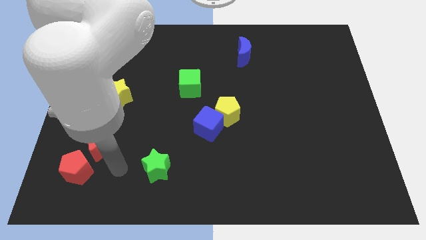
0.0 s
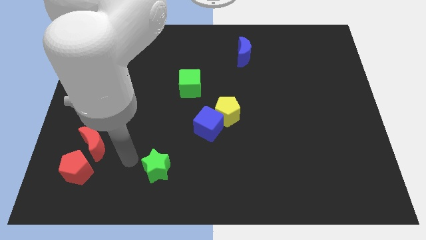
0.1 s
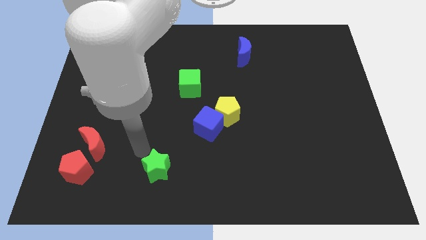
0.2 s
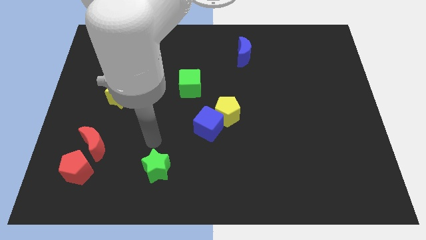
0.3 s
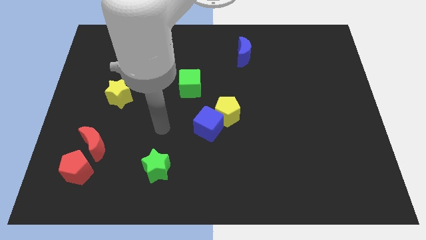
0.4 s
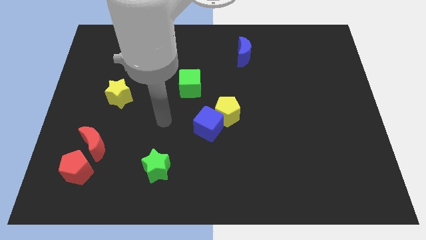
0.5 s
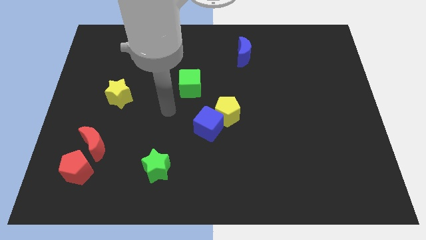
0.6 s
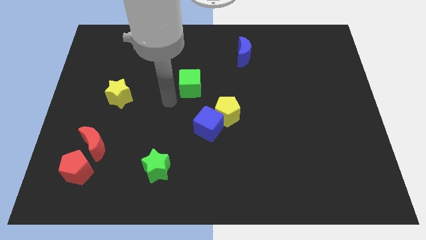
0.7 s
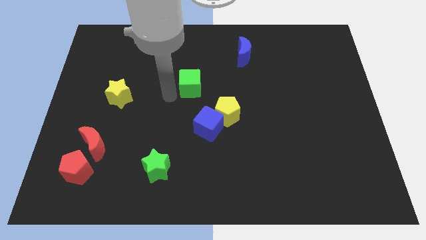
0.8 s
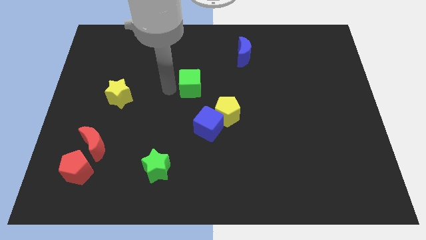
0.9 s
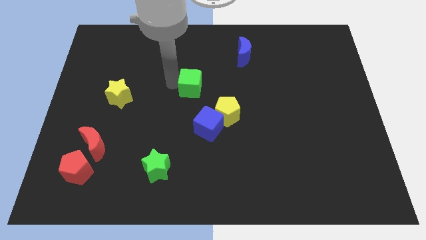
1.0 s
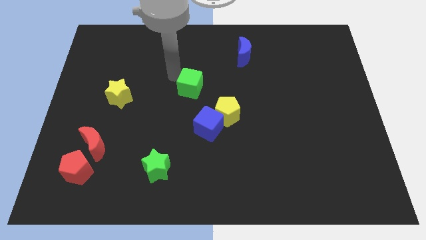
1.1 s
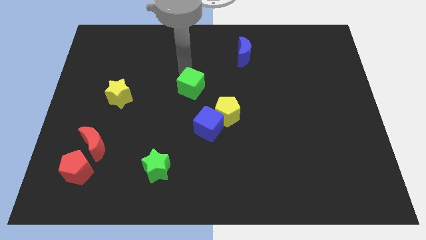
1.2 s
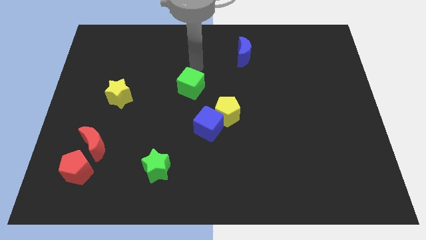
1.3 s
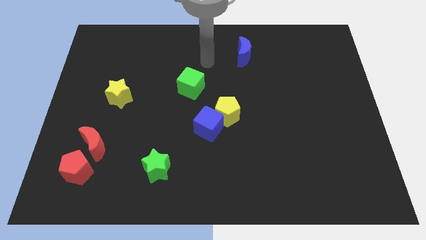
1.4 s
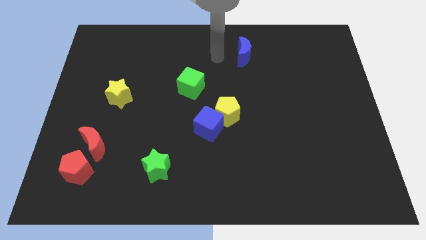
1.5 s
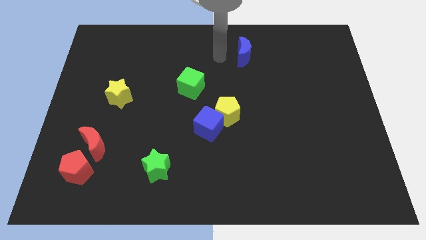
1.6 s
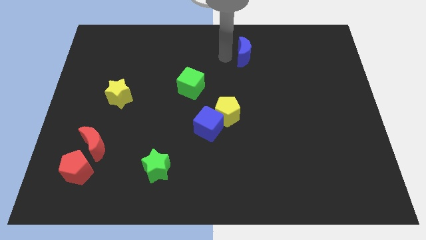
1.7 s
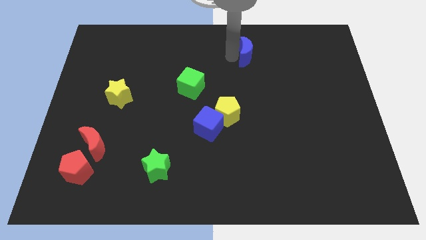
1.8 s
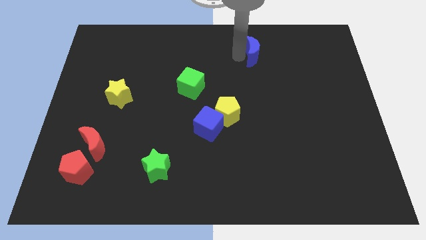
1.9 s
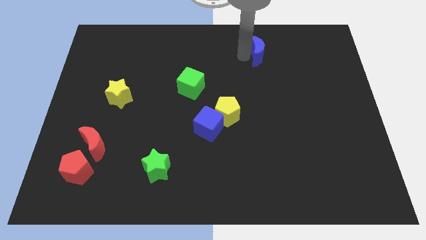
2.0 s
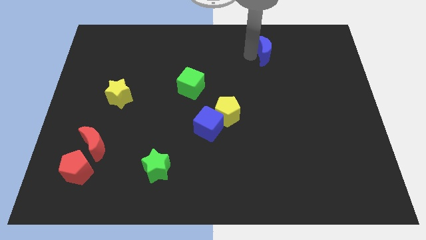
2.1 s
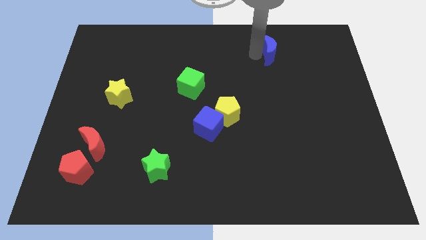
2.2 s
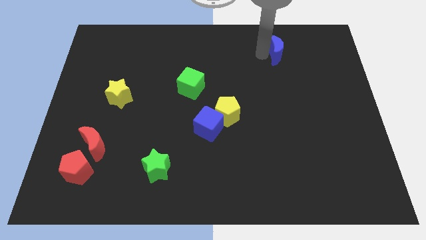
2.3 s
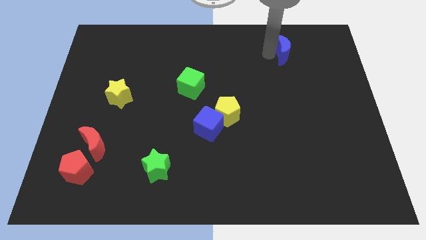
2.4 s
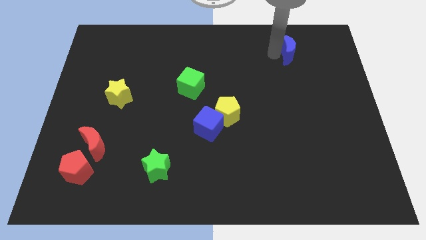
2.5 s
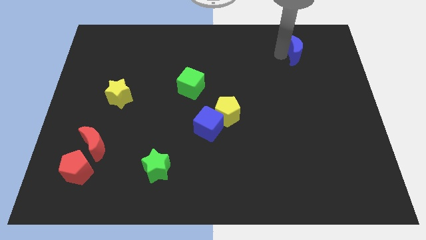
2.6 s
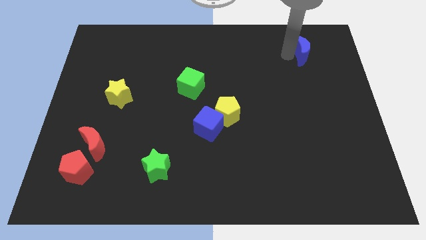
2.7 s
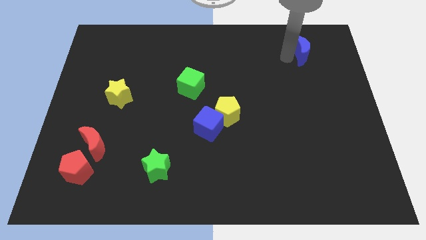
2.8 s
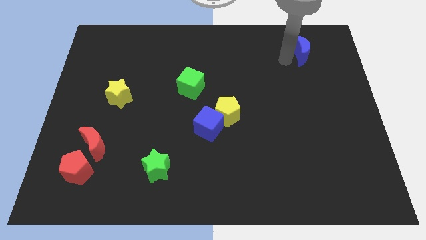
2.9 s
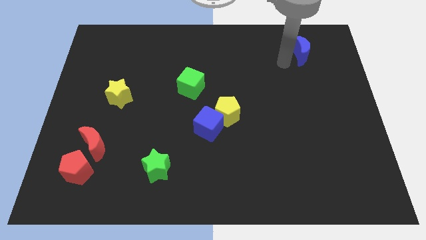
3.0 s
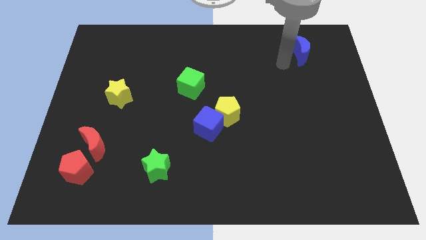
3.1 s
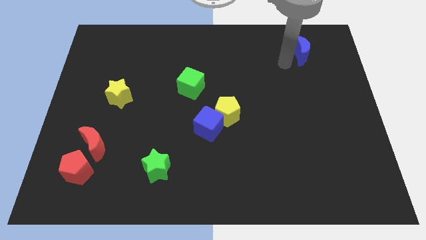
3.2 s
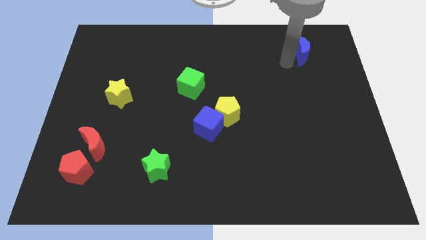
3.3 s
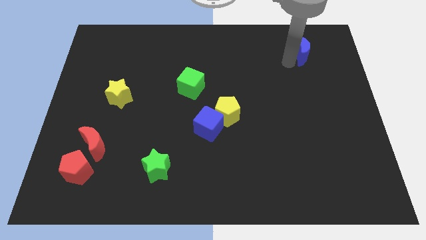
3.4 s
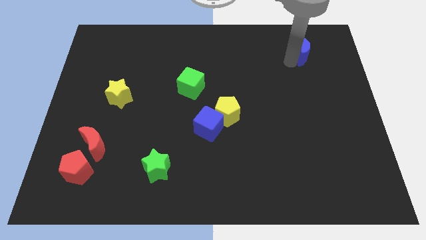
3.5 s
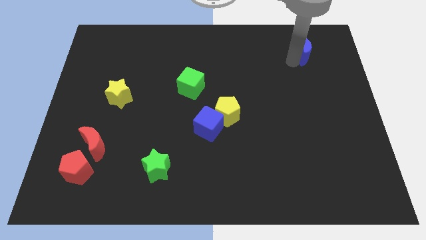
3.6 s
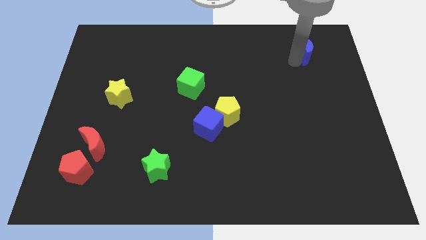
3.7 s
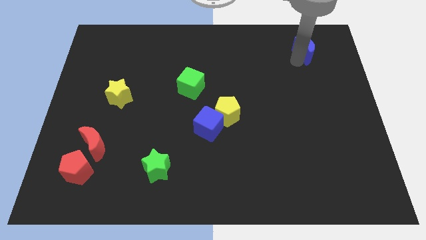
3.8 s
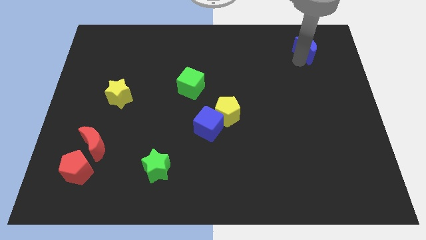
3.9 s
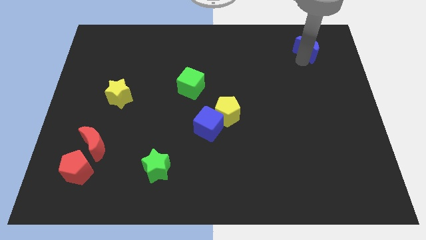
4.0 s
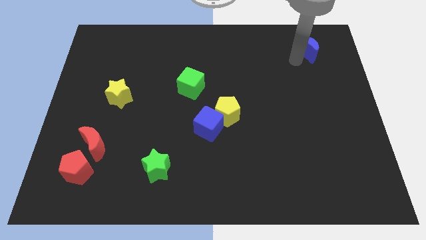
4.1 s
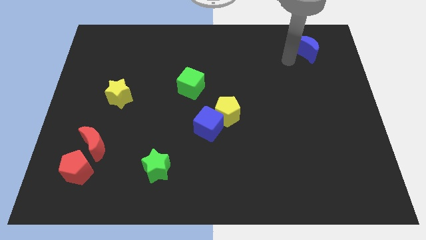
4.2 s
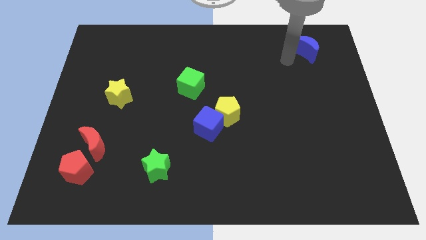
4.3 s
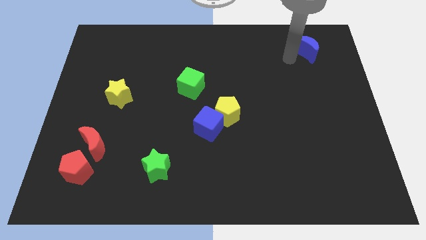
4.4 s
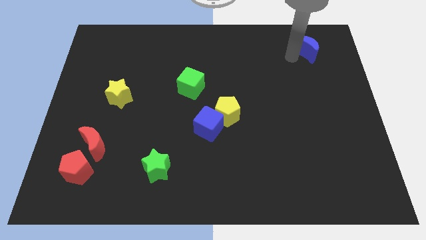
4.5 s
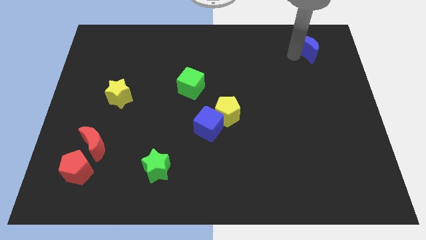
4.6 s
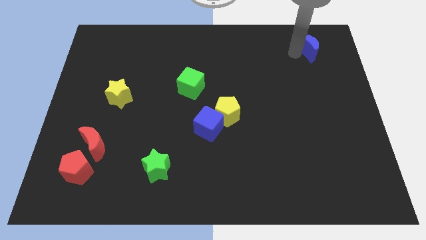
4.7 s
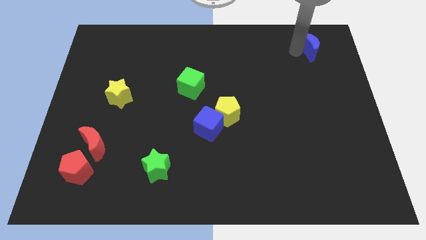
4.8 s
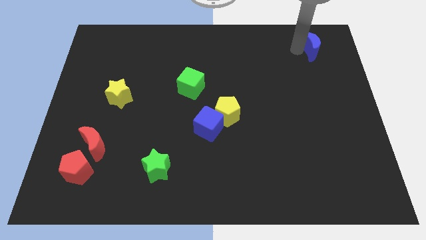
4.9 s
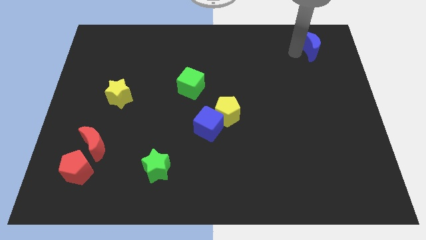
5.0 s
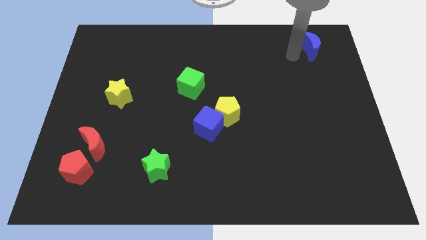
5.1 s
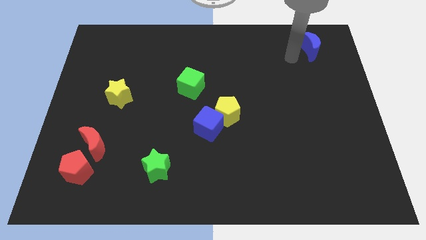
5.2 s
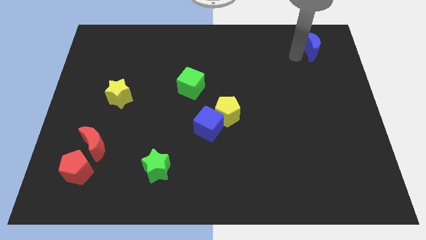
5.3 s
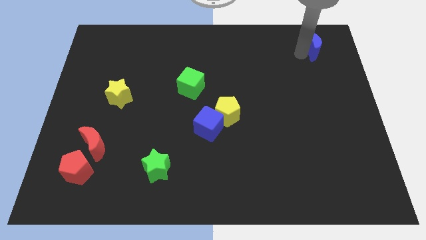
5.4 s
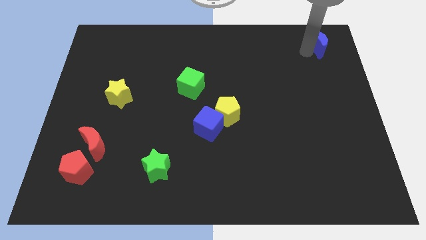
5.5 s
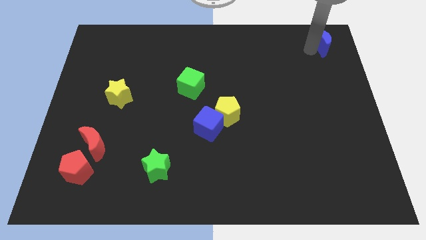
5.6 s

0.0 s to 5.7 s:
put the blue moon to the top right

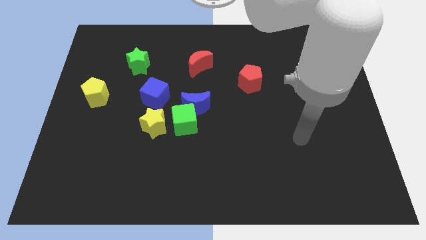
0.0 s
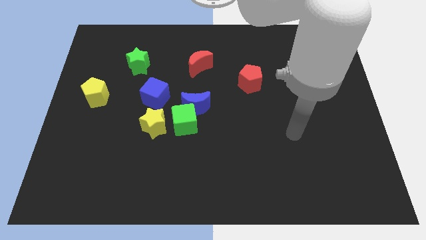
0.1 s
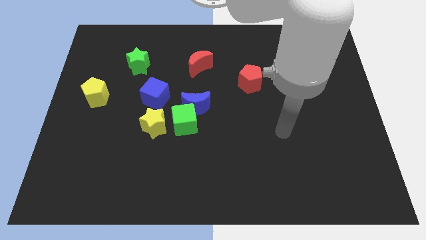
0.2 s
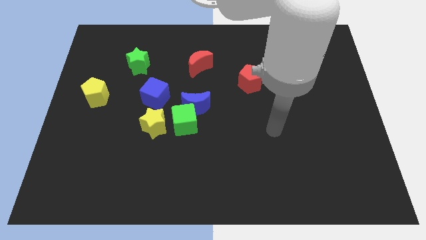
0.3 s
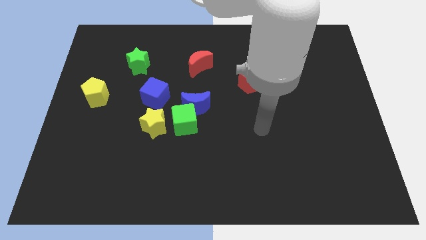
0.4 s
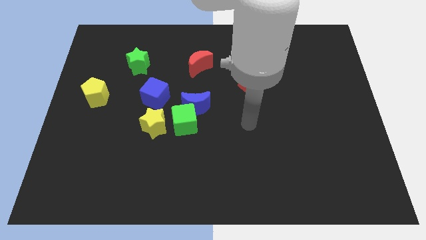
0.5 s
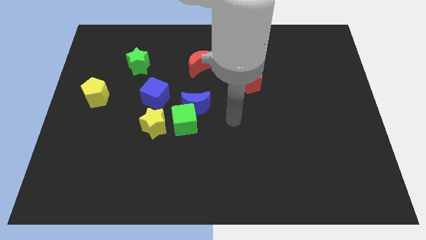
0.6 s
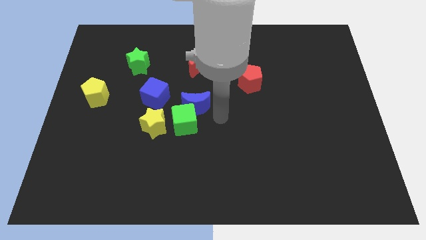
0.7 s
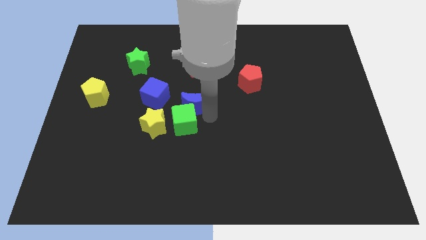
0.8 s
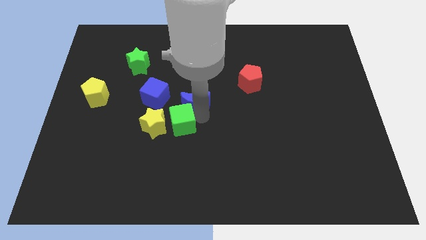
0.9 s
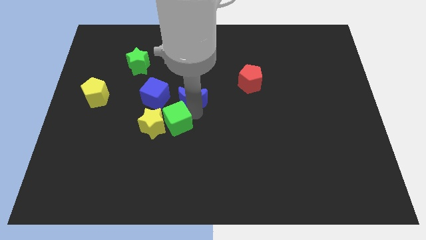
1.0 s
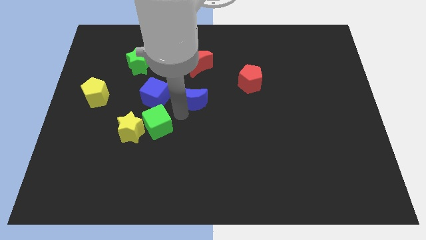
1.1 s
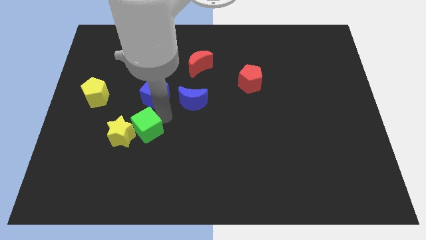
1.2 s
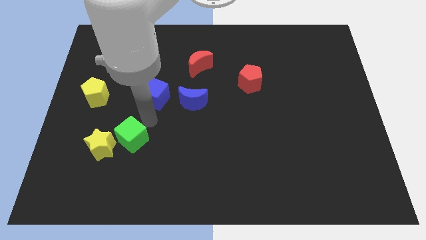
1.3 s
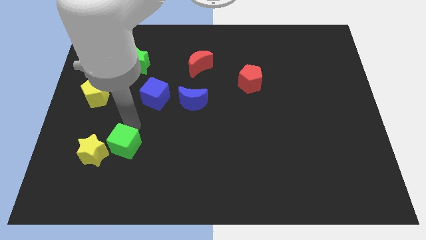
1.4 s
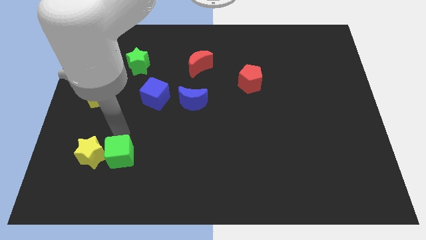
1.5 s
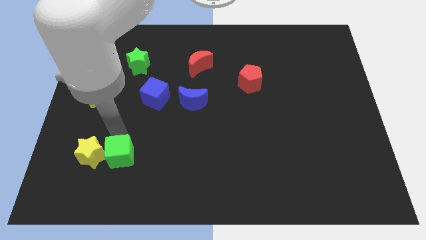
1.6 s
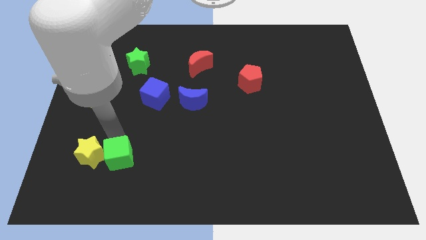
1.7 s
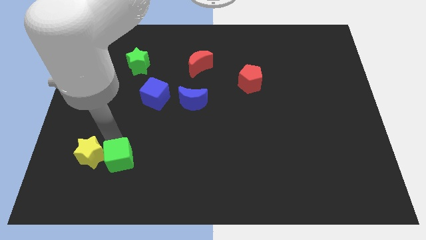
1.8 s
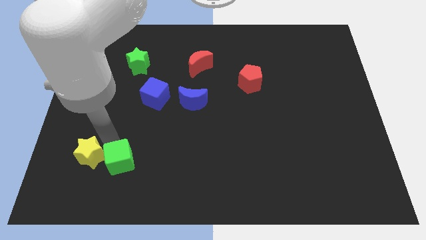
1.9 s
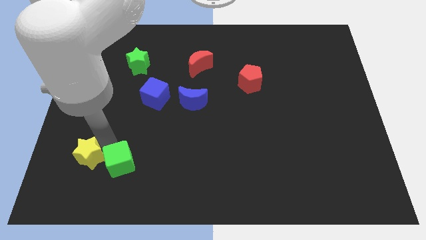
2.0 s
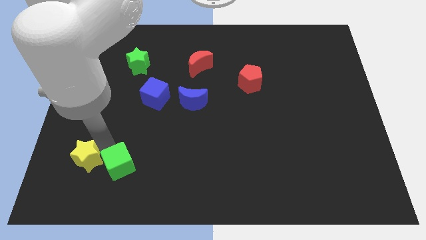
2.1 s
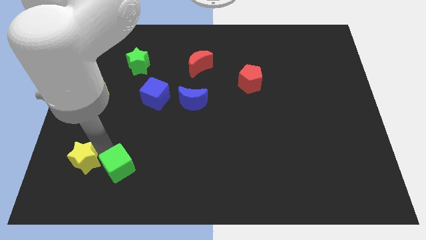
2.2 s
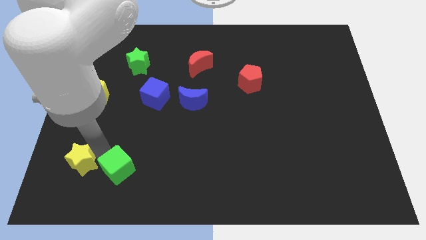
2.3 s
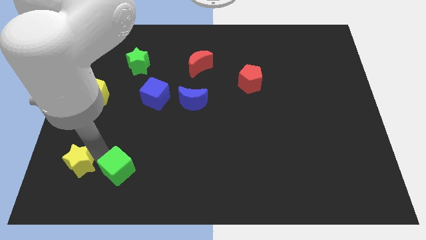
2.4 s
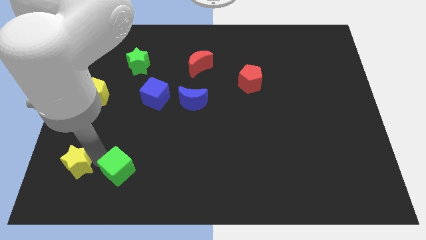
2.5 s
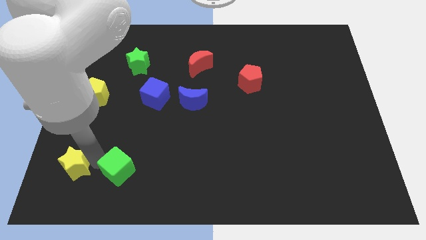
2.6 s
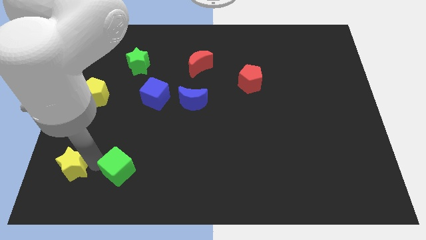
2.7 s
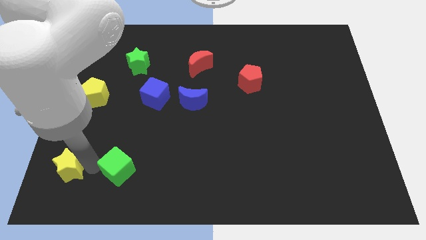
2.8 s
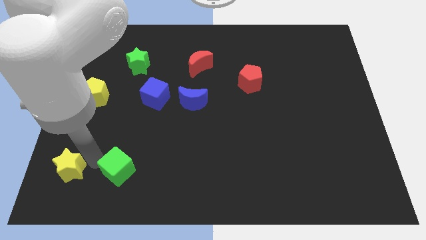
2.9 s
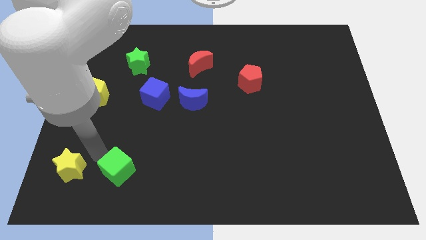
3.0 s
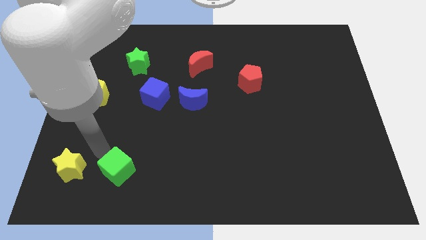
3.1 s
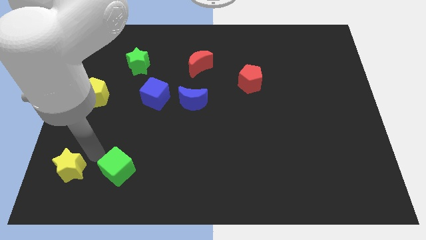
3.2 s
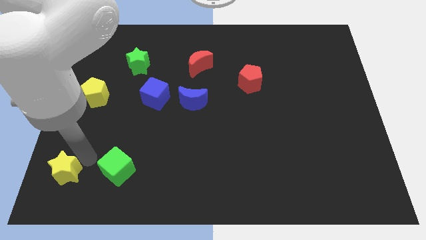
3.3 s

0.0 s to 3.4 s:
put the yellow star to the bottom left of the board
